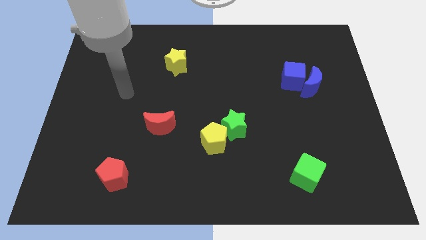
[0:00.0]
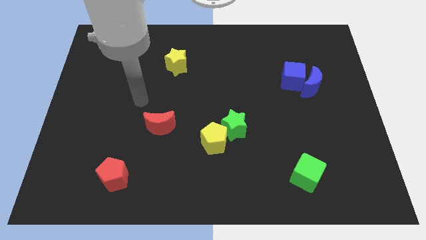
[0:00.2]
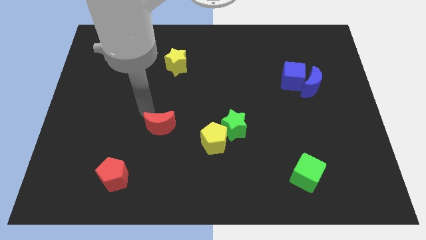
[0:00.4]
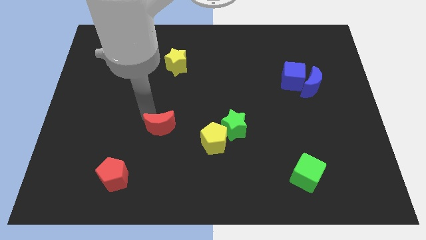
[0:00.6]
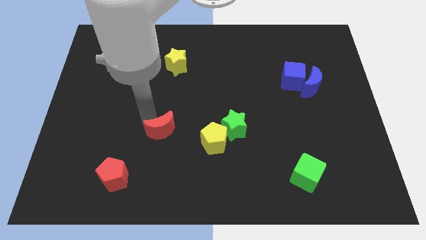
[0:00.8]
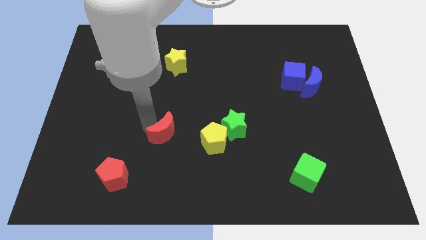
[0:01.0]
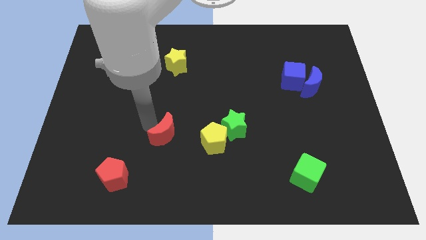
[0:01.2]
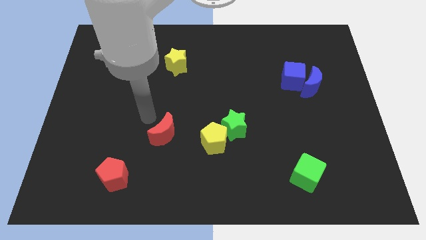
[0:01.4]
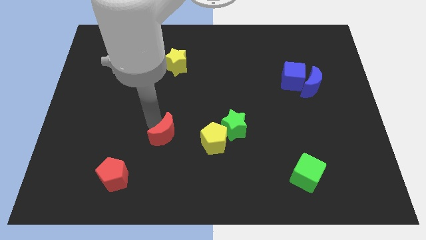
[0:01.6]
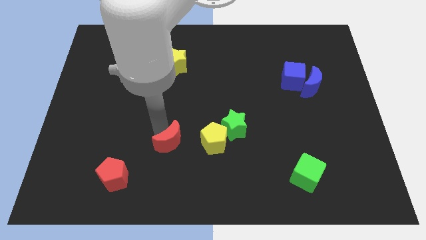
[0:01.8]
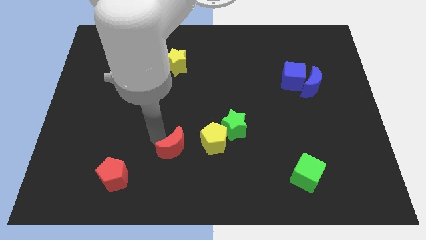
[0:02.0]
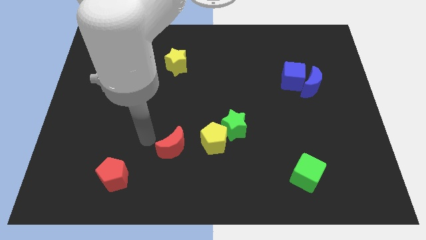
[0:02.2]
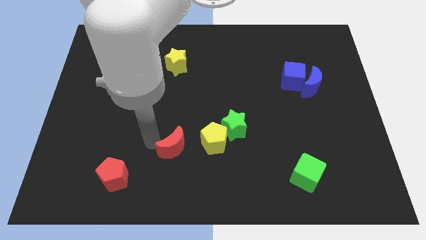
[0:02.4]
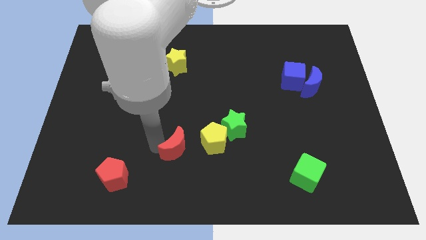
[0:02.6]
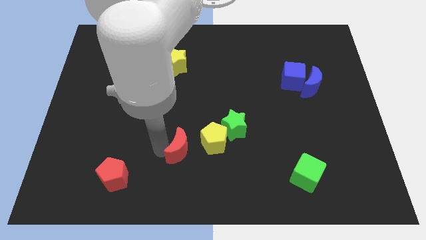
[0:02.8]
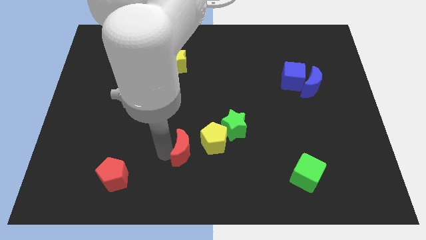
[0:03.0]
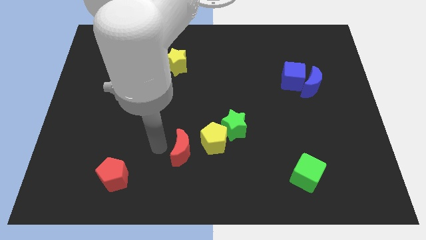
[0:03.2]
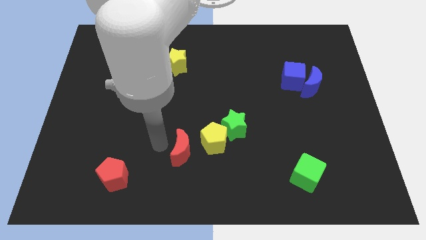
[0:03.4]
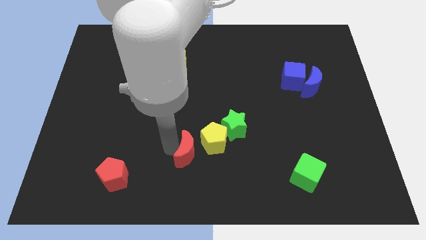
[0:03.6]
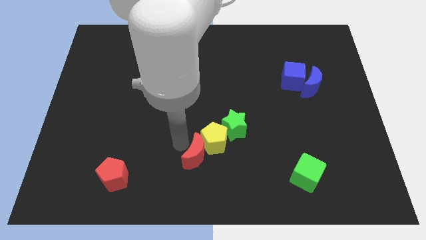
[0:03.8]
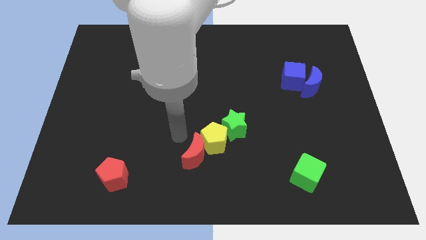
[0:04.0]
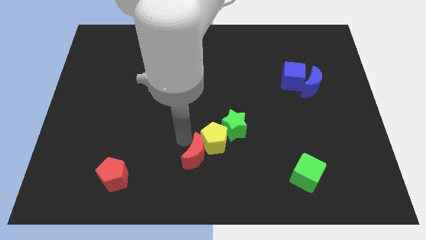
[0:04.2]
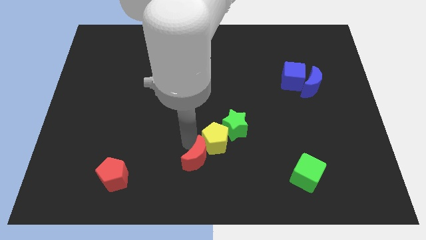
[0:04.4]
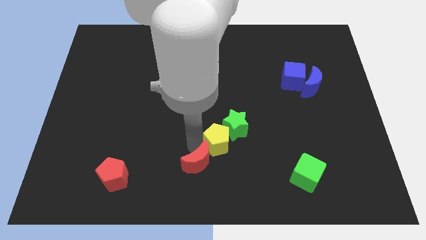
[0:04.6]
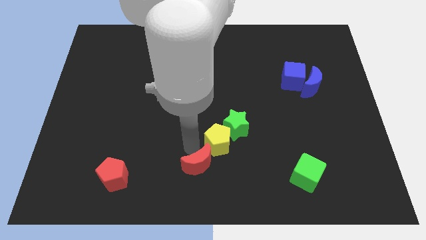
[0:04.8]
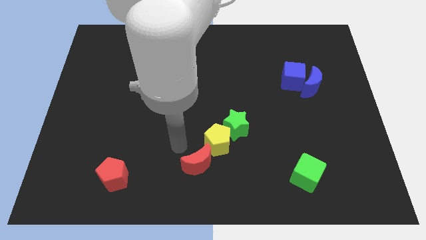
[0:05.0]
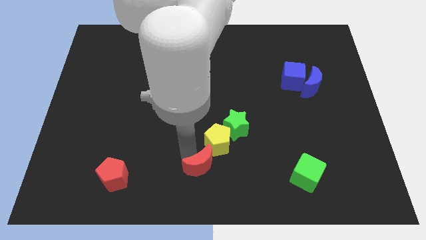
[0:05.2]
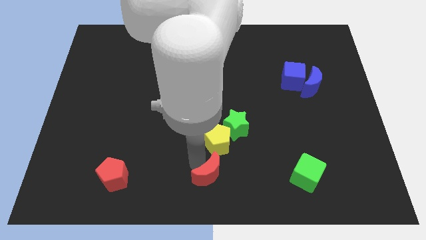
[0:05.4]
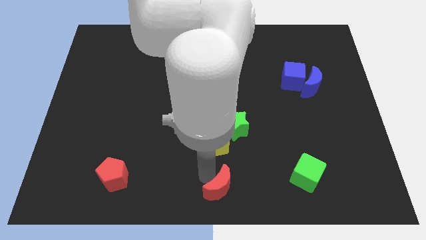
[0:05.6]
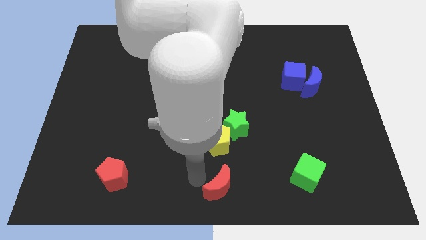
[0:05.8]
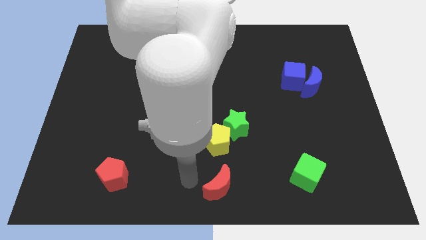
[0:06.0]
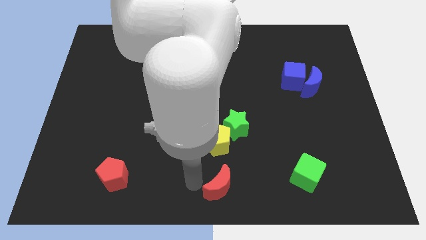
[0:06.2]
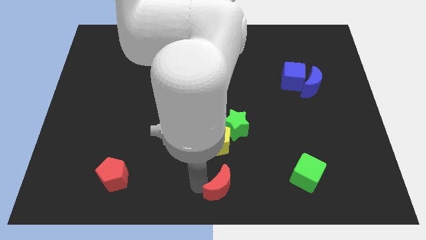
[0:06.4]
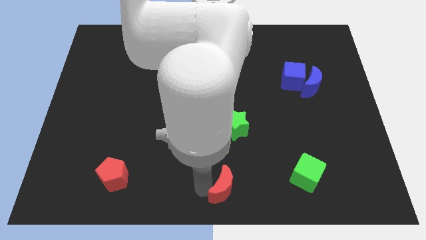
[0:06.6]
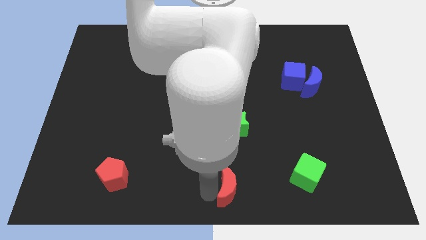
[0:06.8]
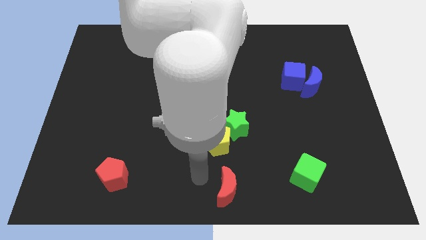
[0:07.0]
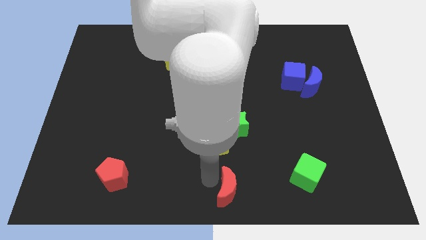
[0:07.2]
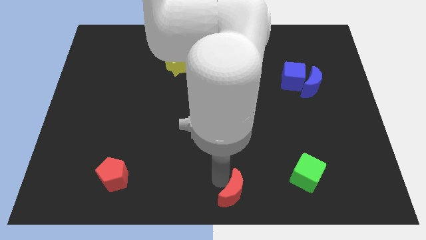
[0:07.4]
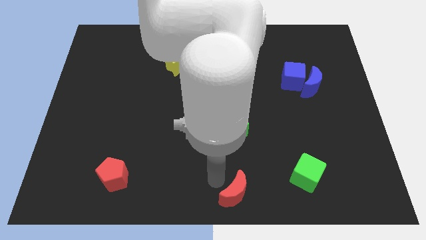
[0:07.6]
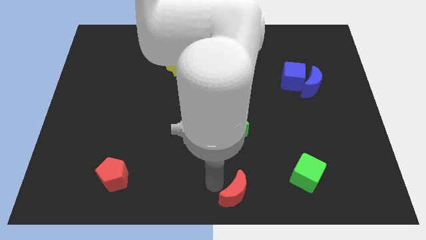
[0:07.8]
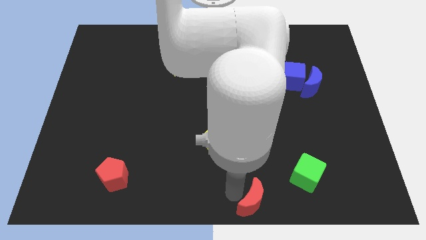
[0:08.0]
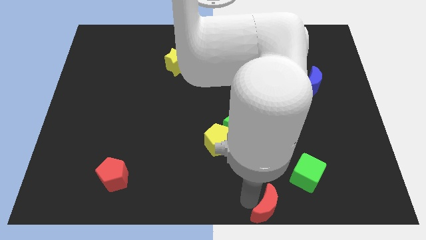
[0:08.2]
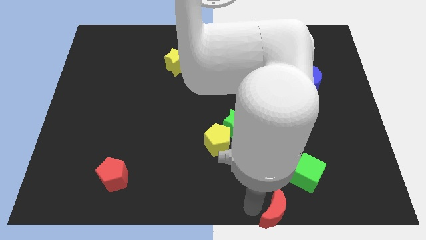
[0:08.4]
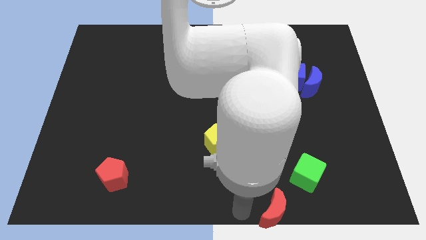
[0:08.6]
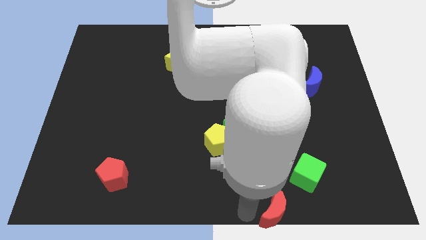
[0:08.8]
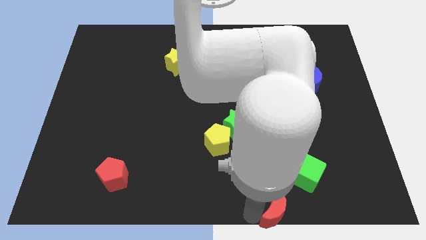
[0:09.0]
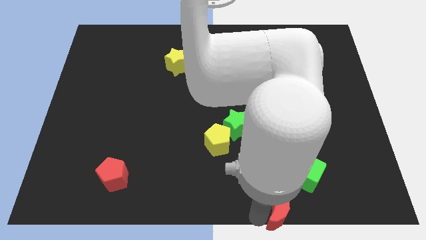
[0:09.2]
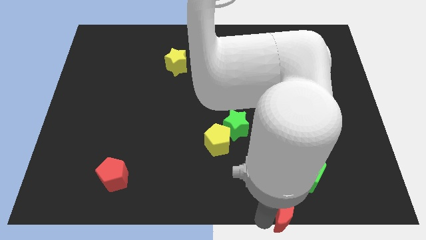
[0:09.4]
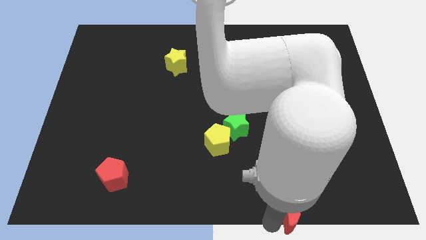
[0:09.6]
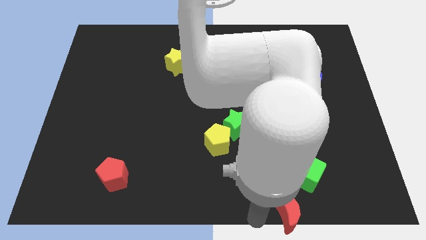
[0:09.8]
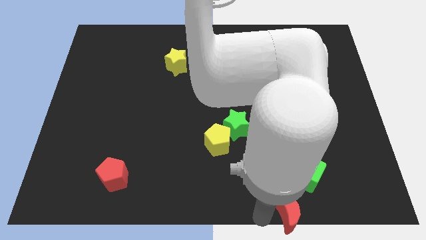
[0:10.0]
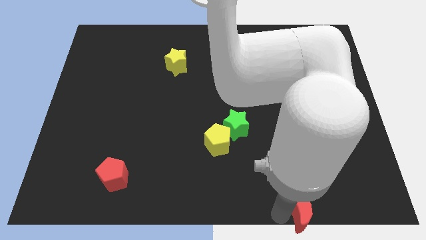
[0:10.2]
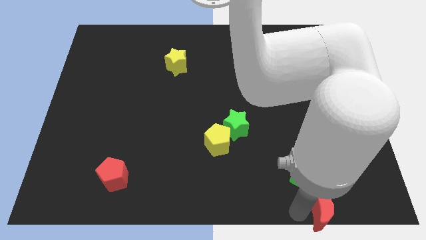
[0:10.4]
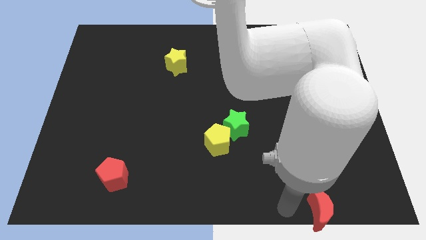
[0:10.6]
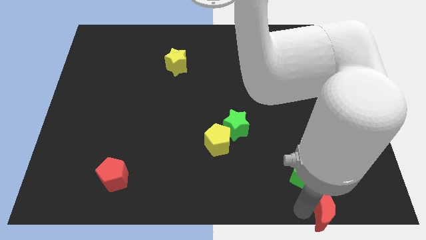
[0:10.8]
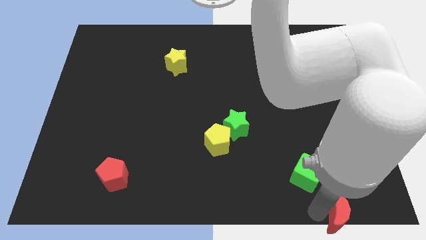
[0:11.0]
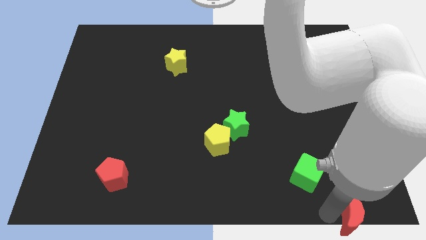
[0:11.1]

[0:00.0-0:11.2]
move the red moon to the bottom right corner

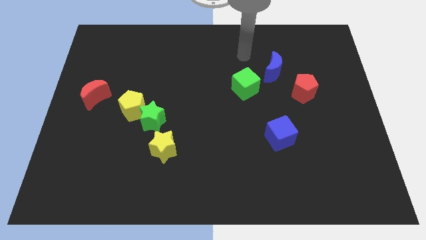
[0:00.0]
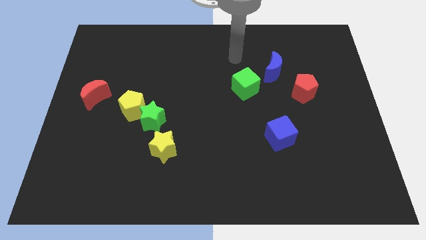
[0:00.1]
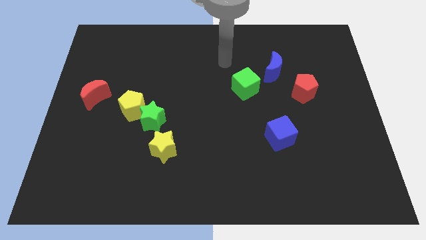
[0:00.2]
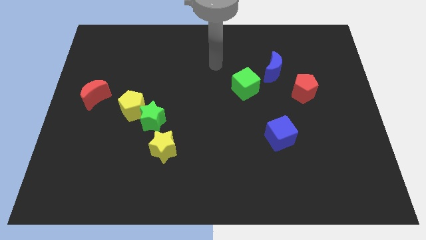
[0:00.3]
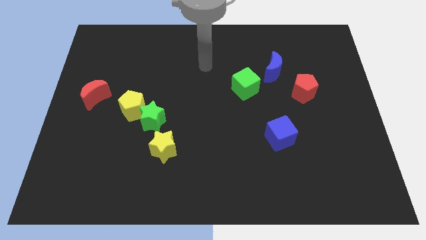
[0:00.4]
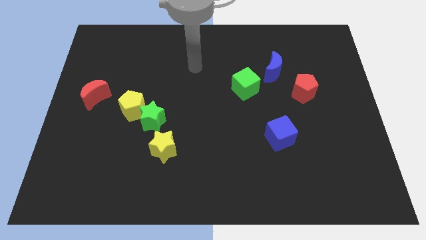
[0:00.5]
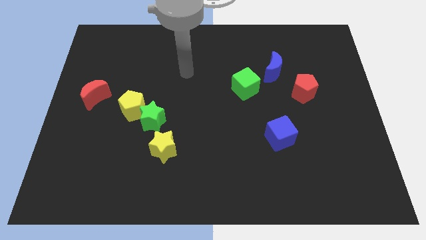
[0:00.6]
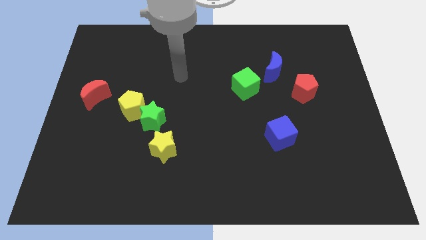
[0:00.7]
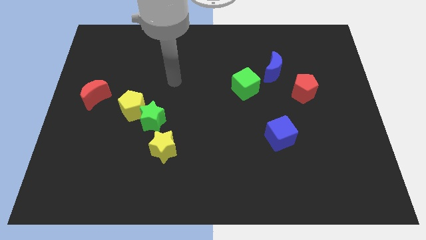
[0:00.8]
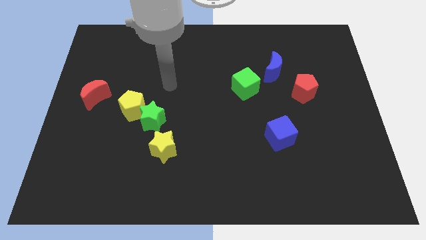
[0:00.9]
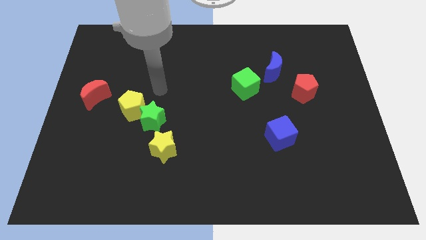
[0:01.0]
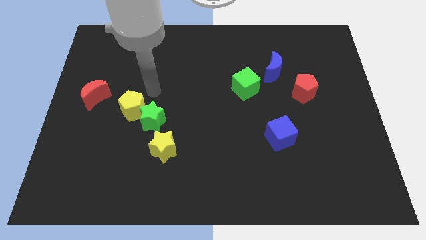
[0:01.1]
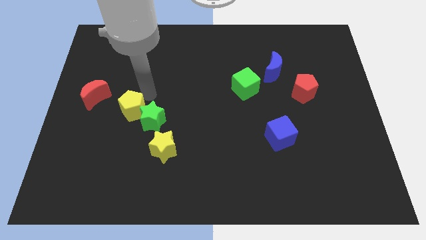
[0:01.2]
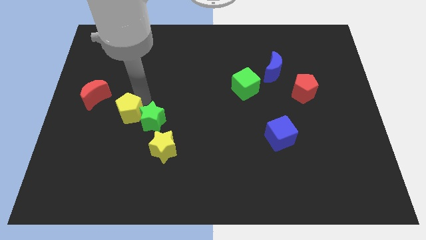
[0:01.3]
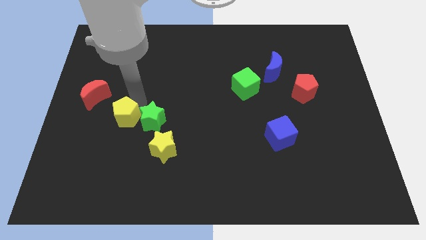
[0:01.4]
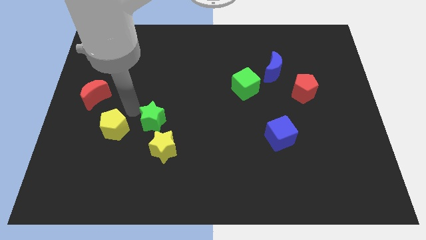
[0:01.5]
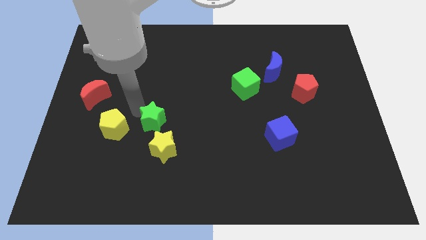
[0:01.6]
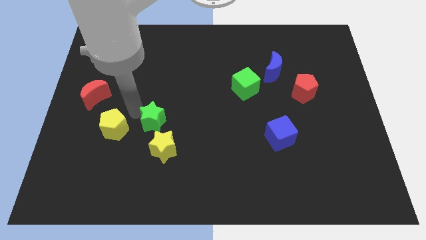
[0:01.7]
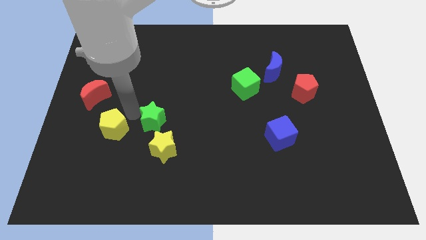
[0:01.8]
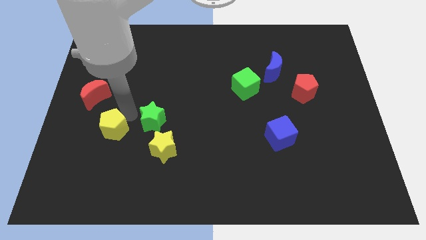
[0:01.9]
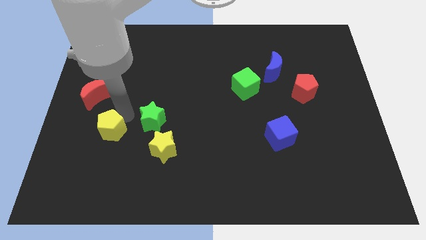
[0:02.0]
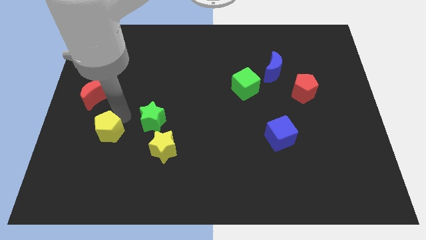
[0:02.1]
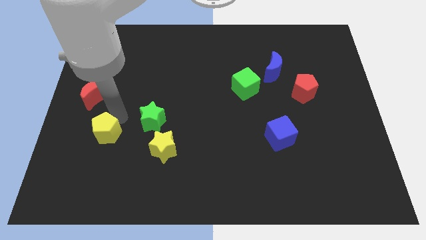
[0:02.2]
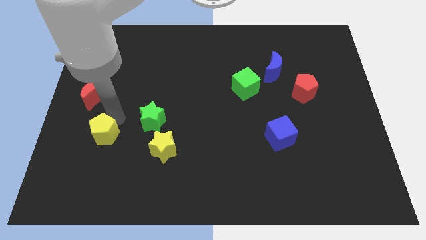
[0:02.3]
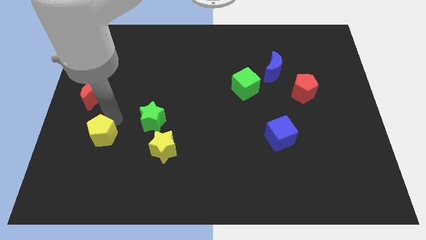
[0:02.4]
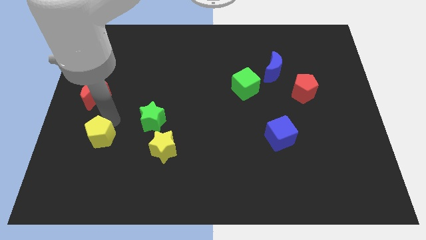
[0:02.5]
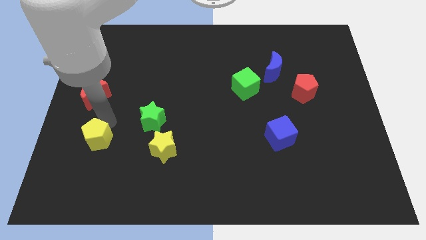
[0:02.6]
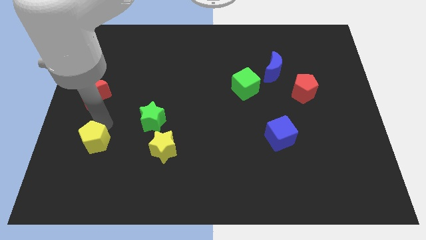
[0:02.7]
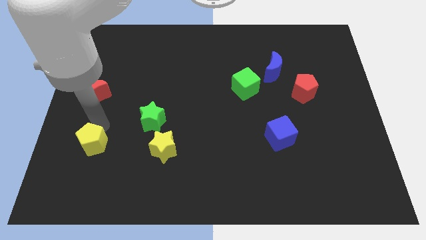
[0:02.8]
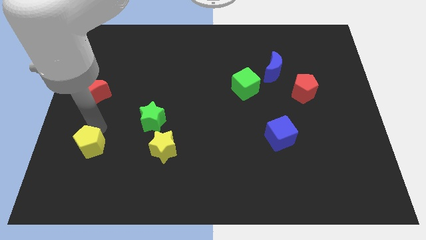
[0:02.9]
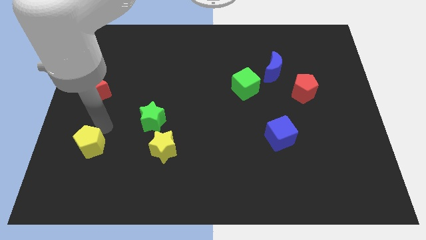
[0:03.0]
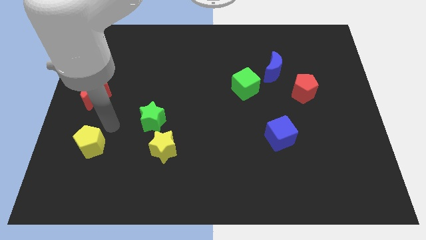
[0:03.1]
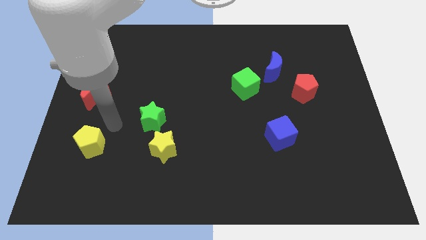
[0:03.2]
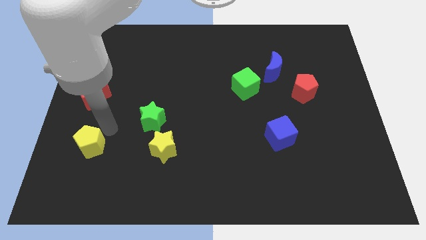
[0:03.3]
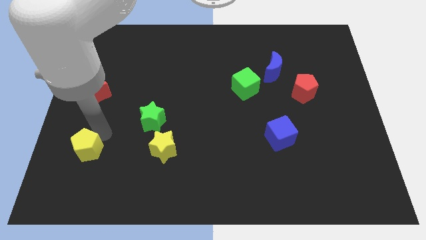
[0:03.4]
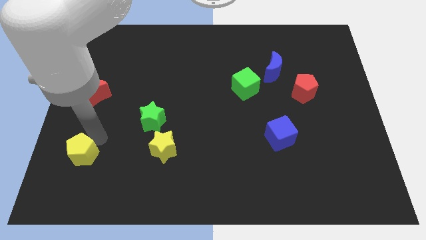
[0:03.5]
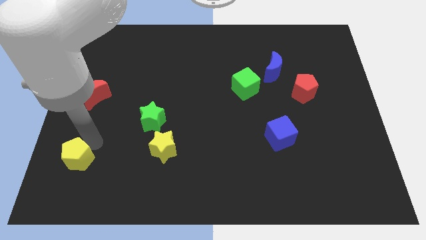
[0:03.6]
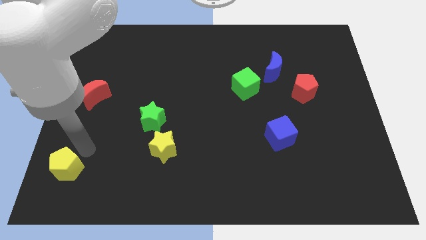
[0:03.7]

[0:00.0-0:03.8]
push the yellow pentagon to the lower left corner
